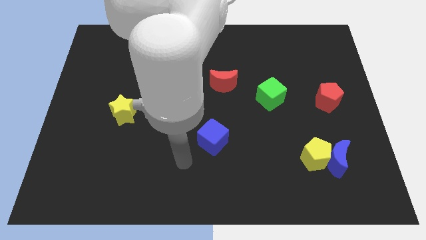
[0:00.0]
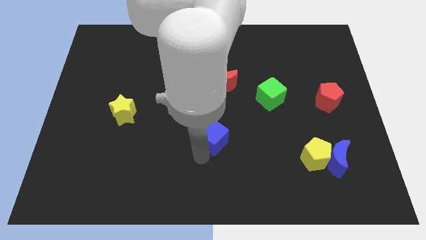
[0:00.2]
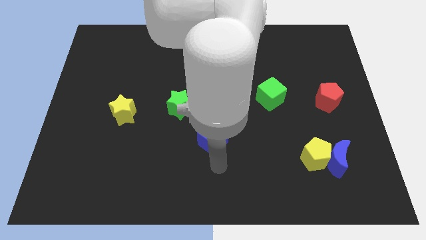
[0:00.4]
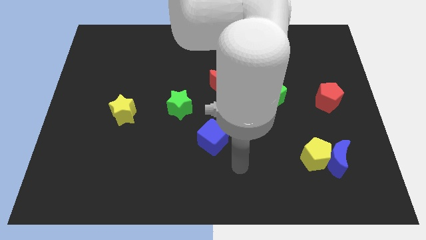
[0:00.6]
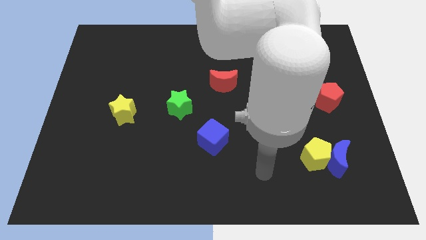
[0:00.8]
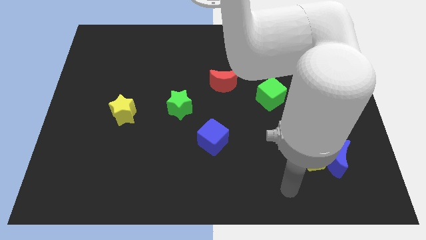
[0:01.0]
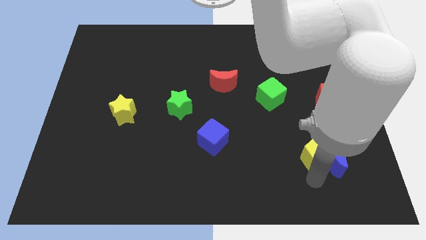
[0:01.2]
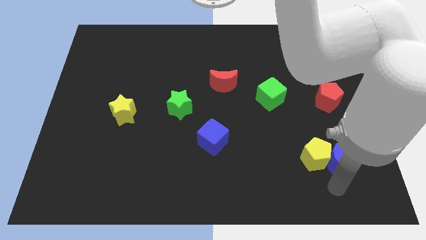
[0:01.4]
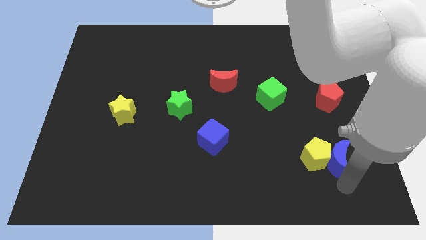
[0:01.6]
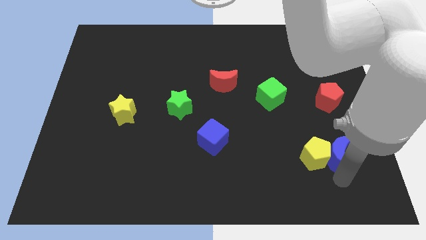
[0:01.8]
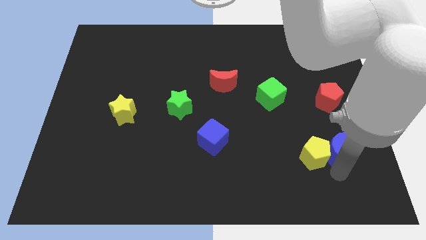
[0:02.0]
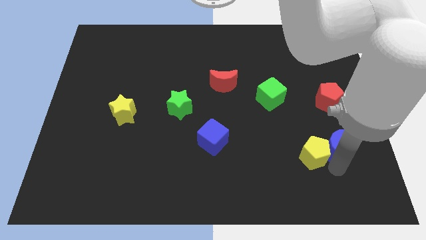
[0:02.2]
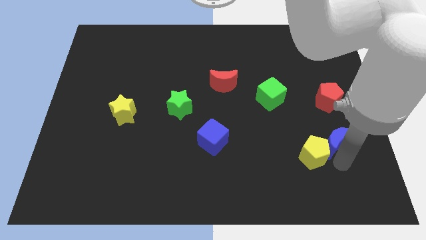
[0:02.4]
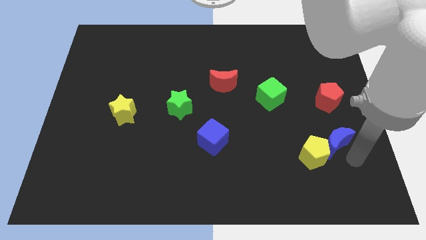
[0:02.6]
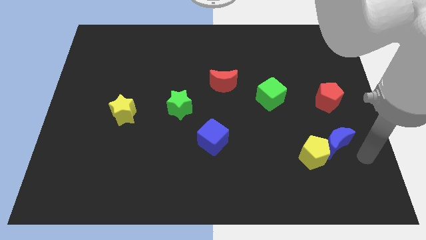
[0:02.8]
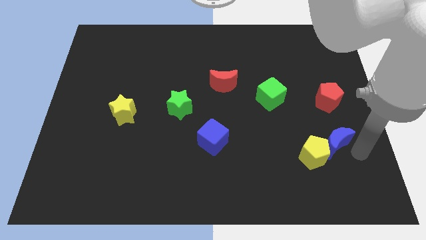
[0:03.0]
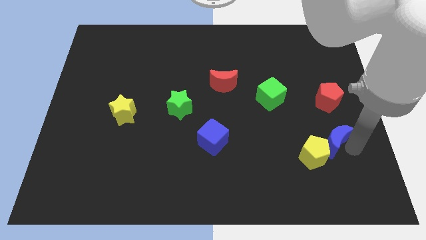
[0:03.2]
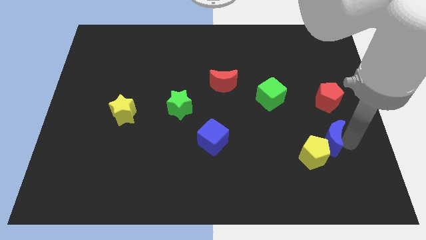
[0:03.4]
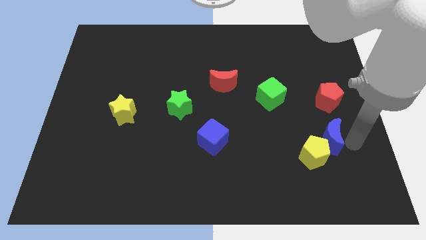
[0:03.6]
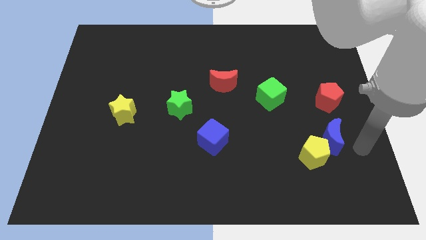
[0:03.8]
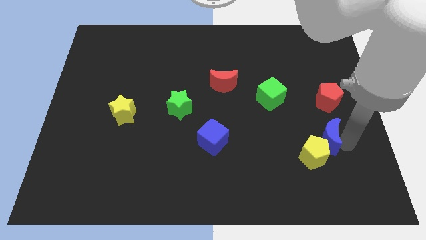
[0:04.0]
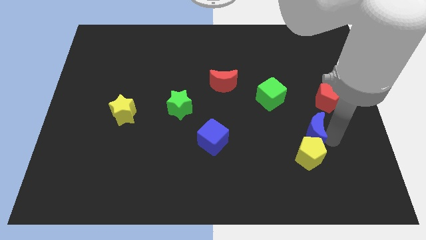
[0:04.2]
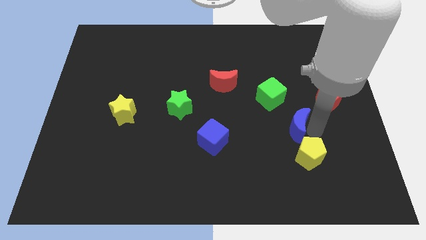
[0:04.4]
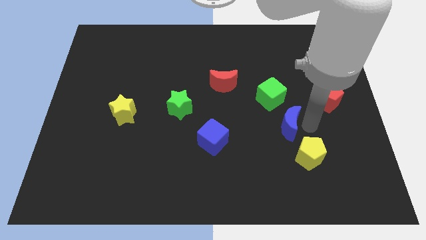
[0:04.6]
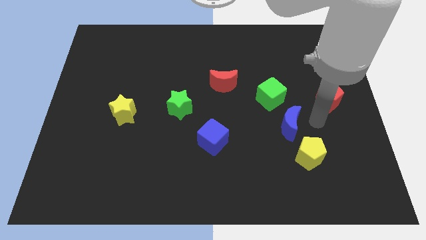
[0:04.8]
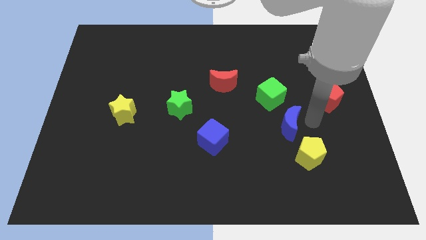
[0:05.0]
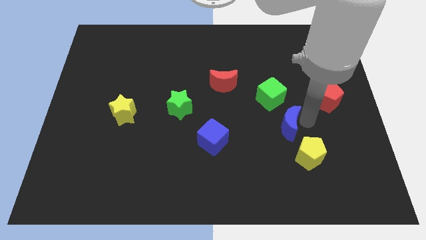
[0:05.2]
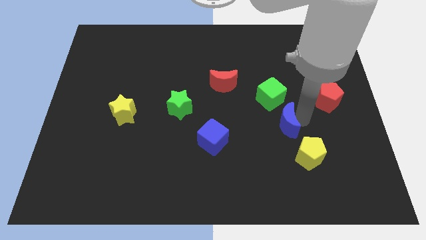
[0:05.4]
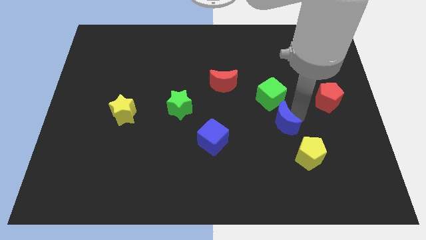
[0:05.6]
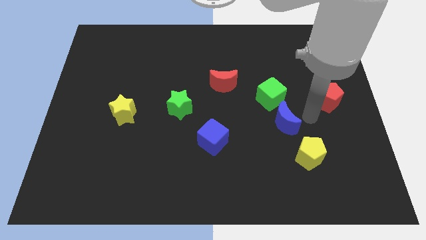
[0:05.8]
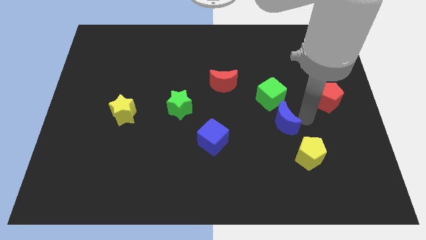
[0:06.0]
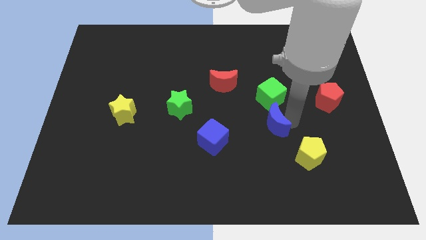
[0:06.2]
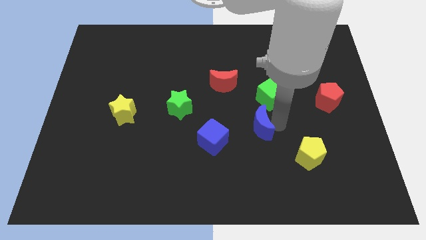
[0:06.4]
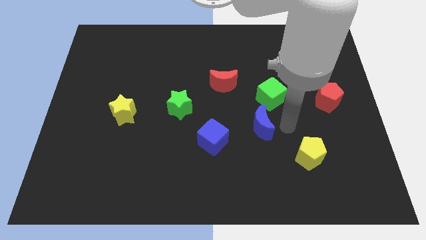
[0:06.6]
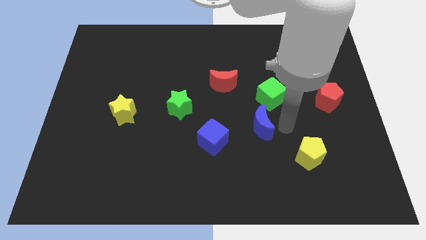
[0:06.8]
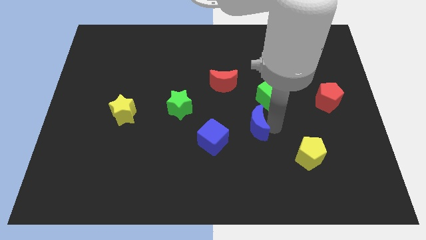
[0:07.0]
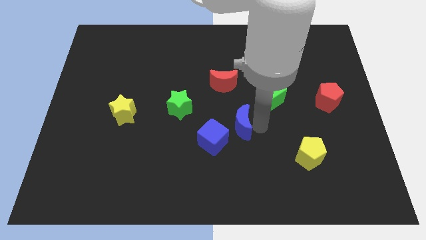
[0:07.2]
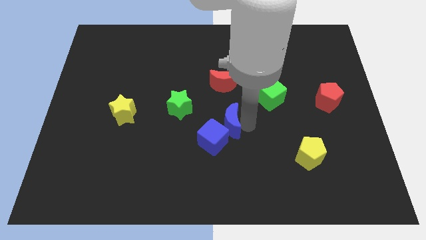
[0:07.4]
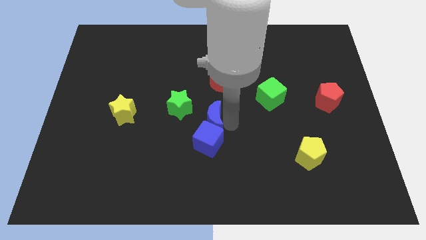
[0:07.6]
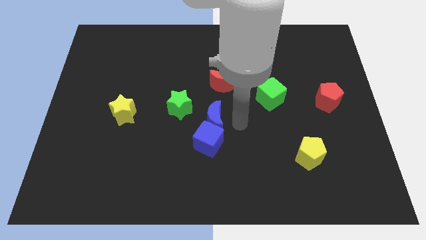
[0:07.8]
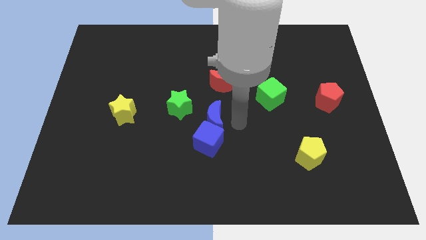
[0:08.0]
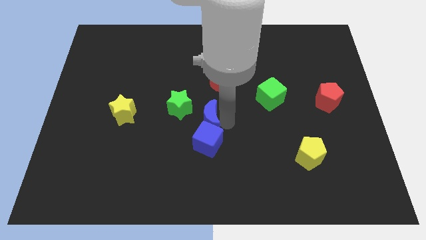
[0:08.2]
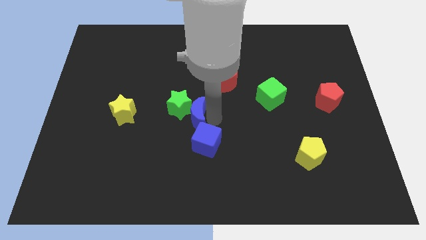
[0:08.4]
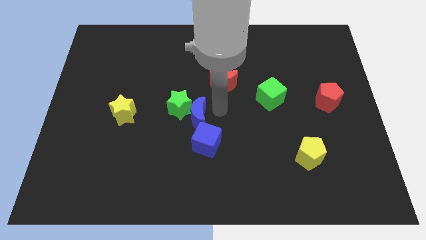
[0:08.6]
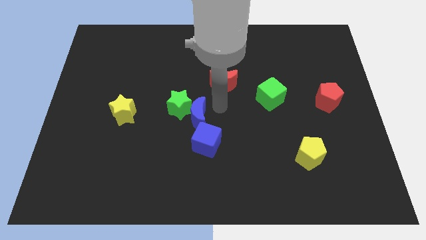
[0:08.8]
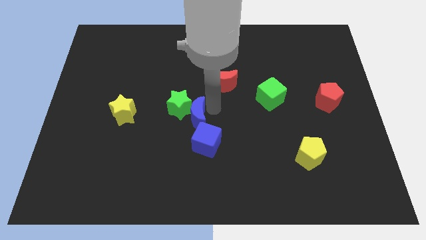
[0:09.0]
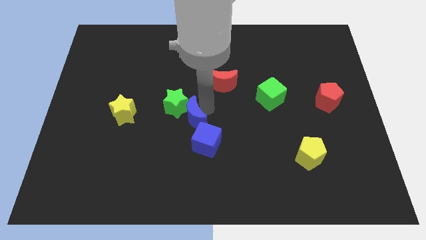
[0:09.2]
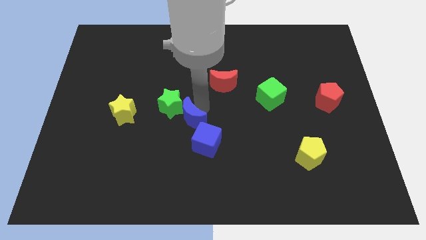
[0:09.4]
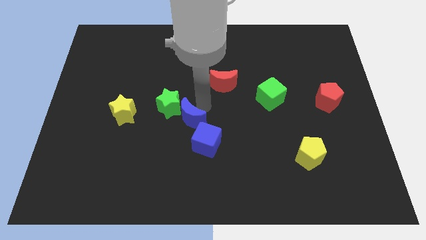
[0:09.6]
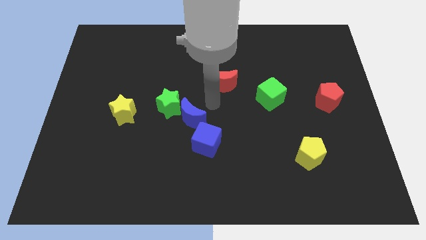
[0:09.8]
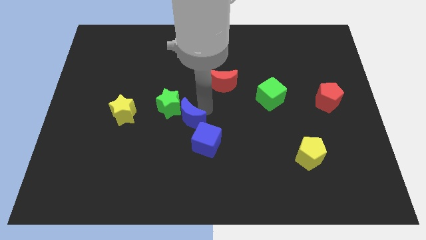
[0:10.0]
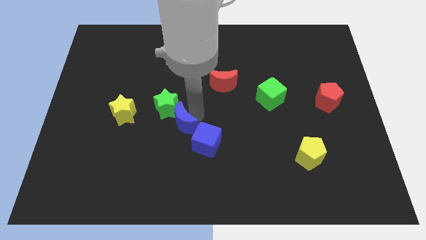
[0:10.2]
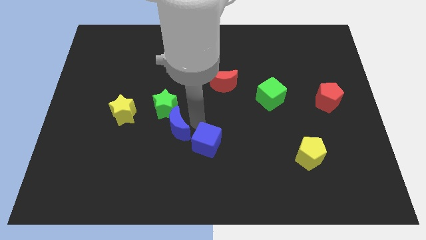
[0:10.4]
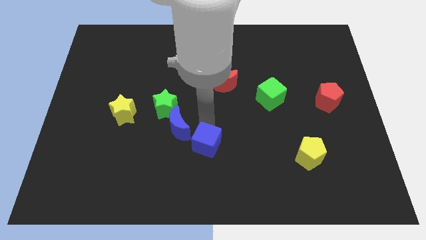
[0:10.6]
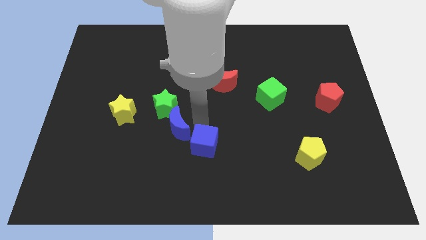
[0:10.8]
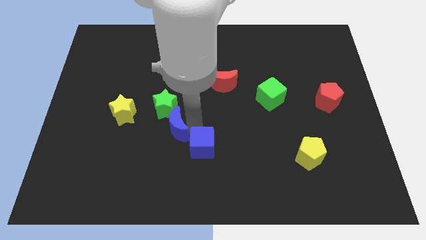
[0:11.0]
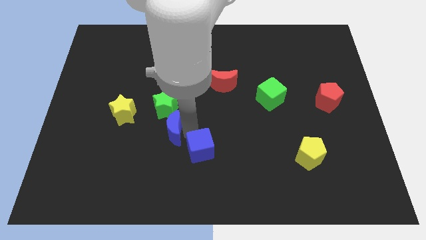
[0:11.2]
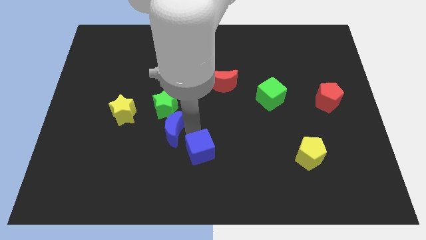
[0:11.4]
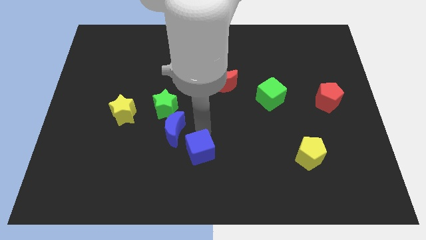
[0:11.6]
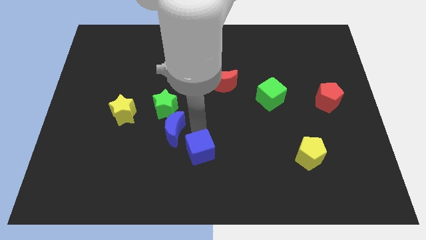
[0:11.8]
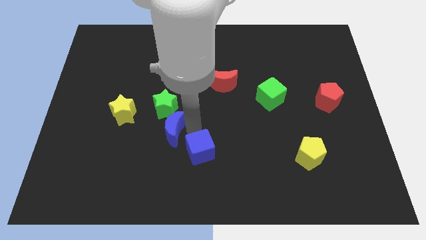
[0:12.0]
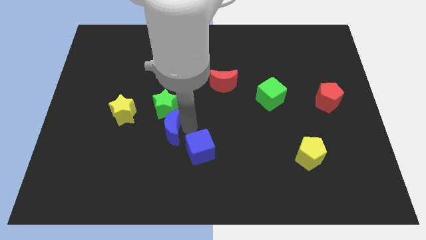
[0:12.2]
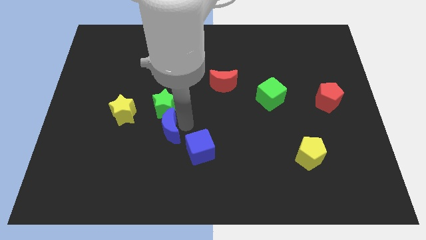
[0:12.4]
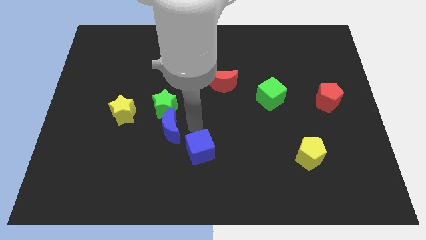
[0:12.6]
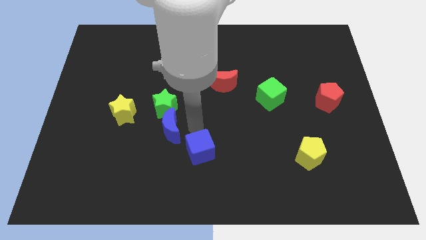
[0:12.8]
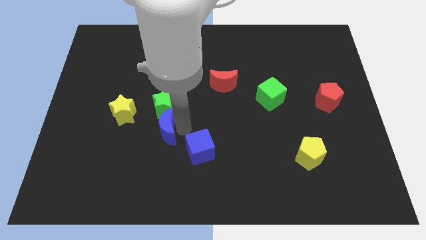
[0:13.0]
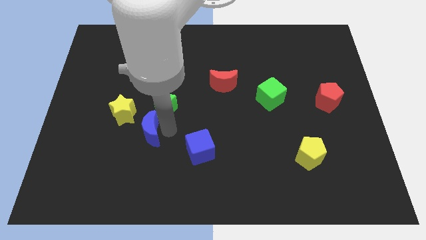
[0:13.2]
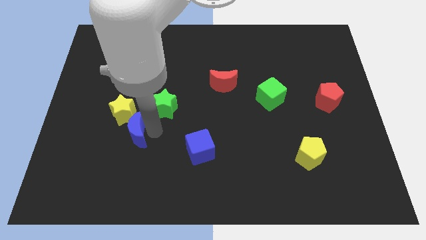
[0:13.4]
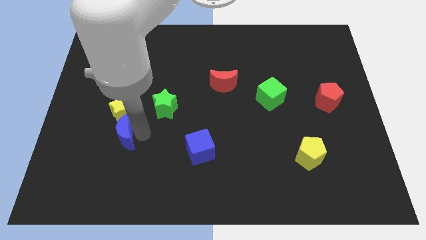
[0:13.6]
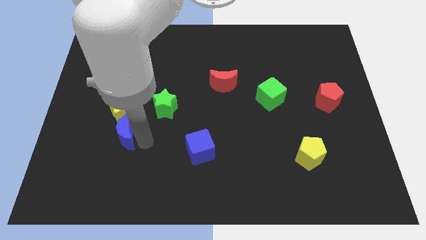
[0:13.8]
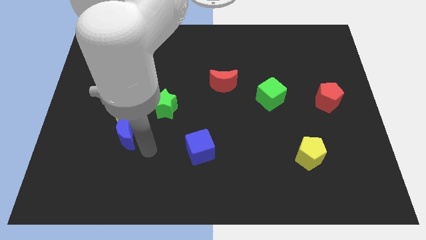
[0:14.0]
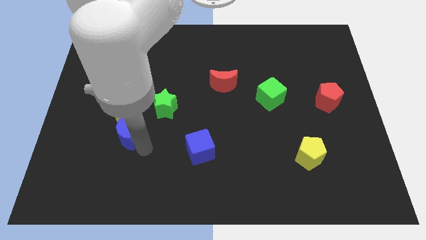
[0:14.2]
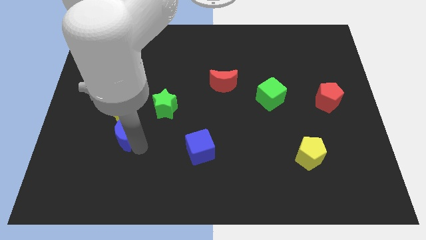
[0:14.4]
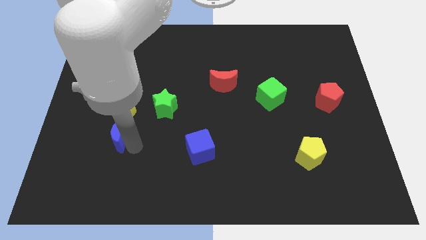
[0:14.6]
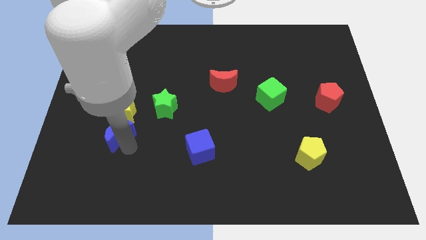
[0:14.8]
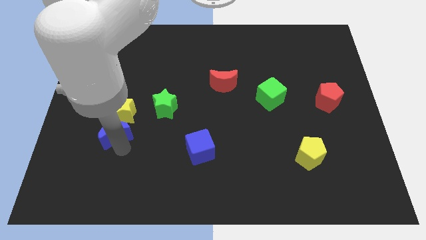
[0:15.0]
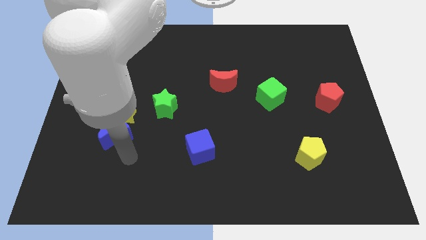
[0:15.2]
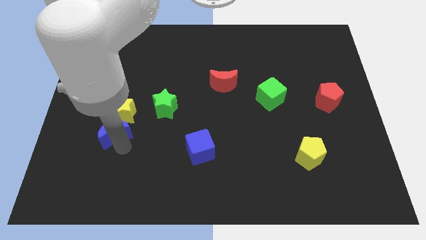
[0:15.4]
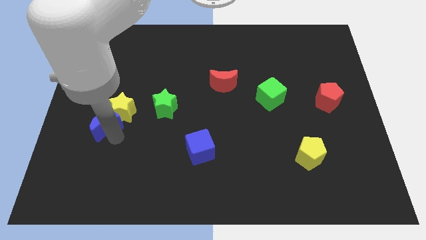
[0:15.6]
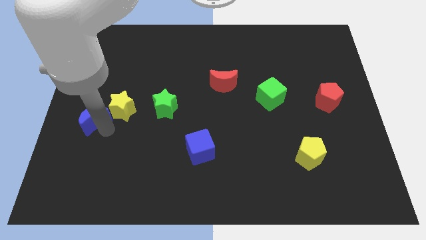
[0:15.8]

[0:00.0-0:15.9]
put the blue moon to the center left

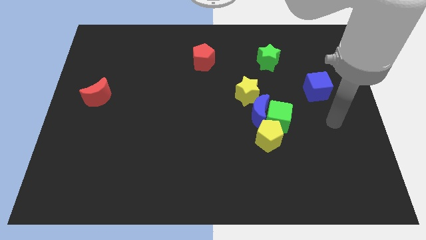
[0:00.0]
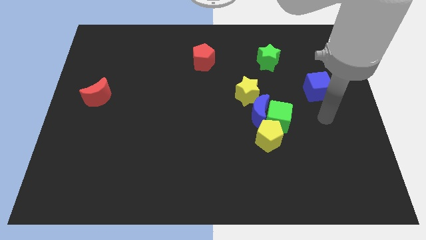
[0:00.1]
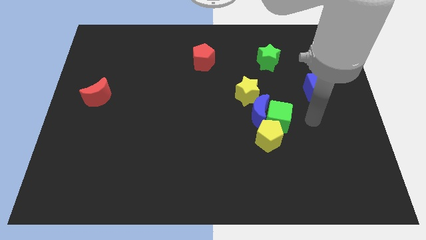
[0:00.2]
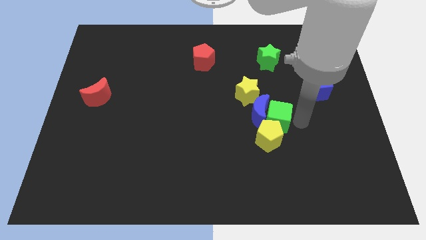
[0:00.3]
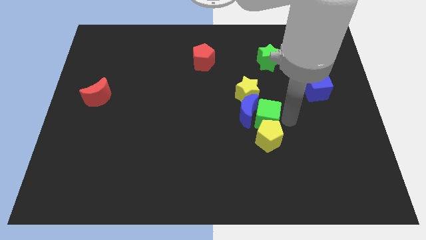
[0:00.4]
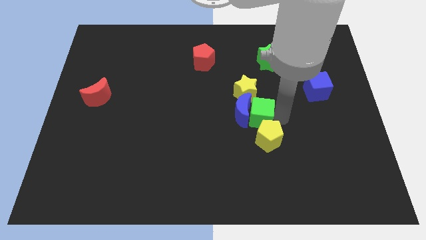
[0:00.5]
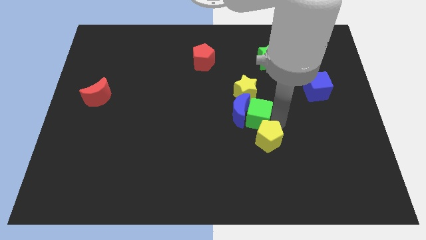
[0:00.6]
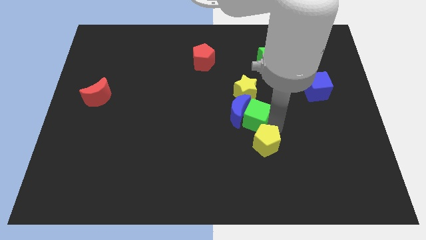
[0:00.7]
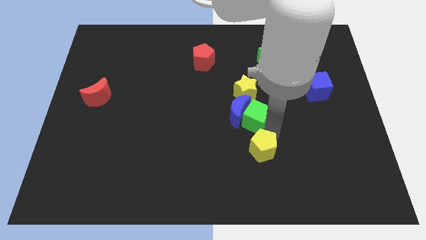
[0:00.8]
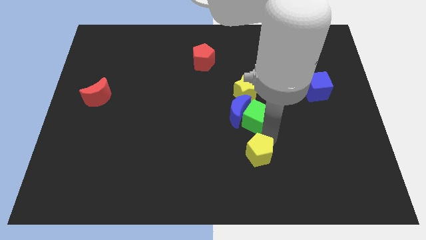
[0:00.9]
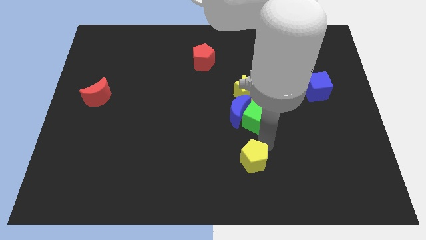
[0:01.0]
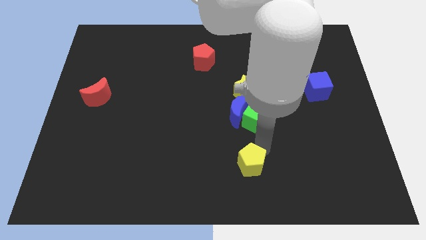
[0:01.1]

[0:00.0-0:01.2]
push the yellow pentagon to the bottom
